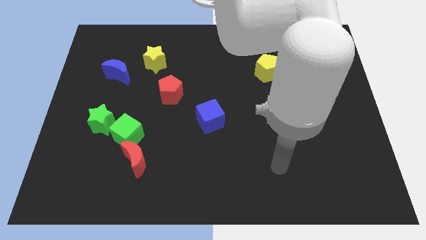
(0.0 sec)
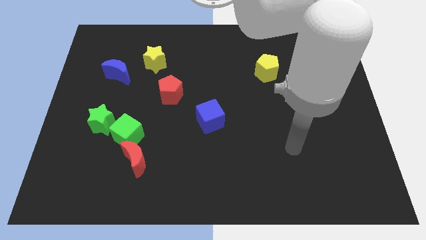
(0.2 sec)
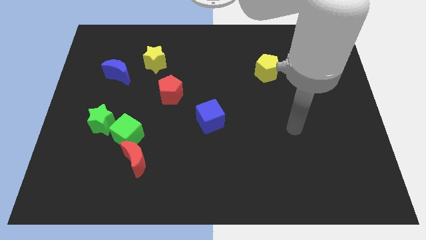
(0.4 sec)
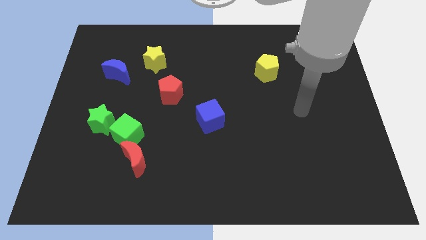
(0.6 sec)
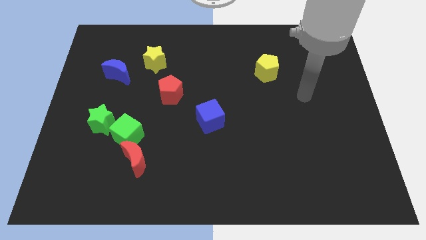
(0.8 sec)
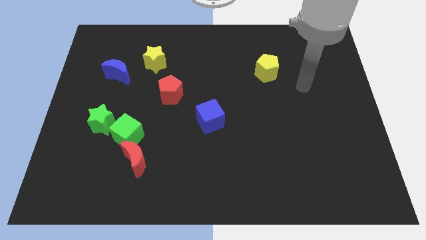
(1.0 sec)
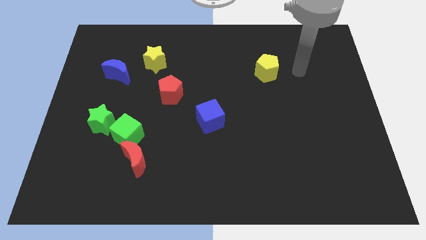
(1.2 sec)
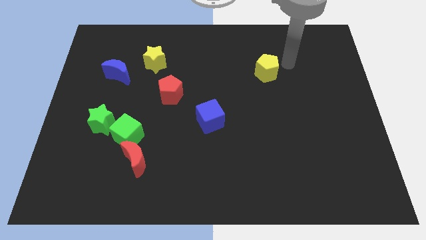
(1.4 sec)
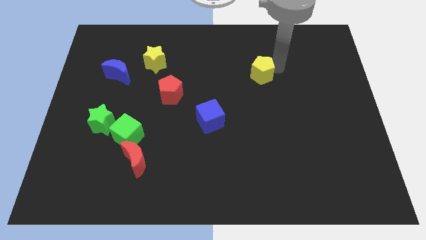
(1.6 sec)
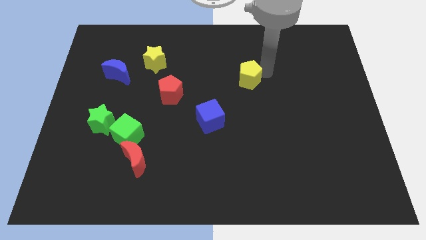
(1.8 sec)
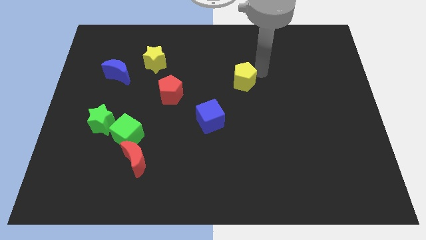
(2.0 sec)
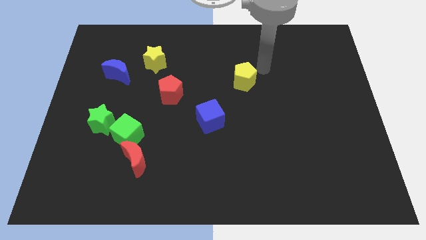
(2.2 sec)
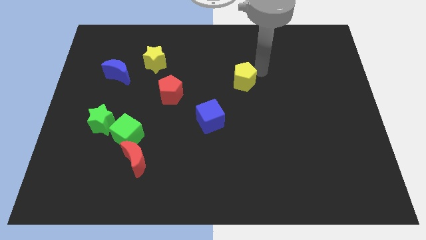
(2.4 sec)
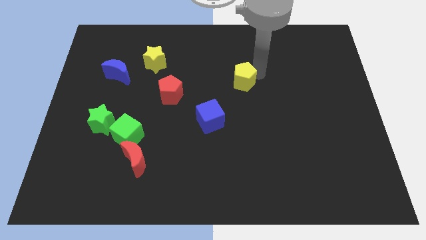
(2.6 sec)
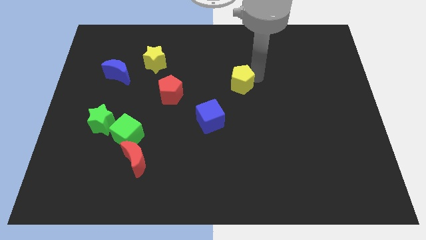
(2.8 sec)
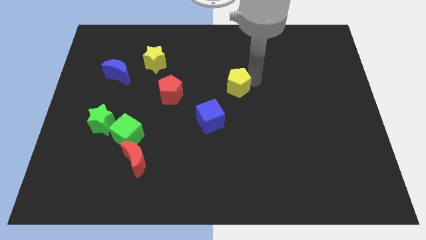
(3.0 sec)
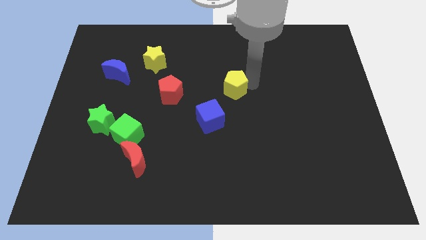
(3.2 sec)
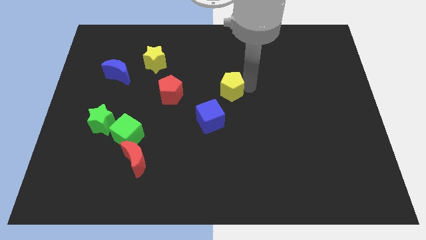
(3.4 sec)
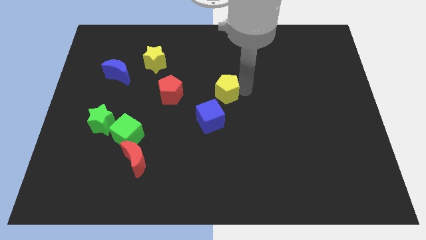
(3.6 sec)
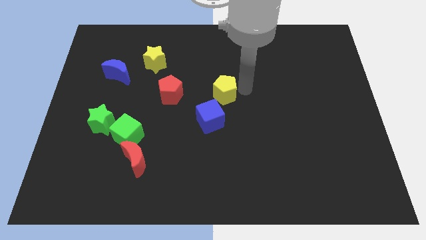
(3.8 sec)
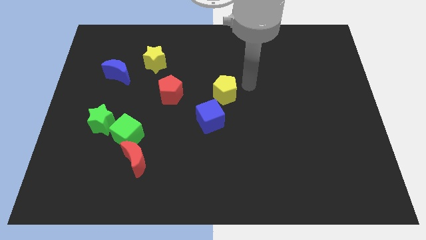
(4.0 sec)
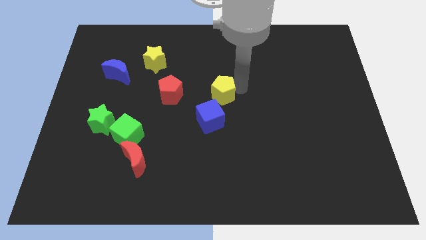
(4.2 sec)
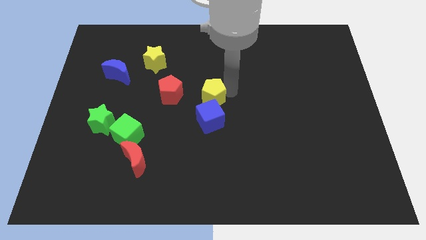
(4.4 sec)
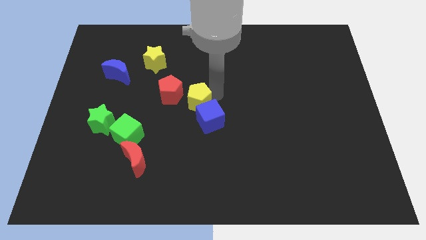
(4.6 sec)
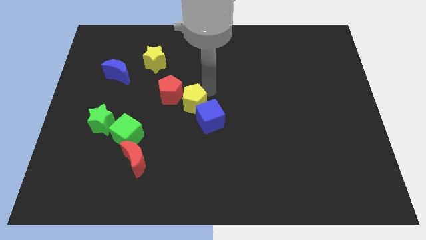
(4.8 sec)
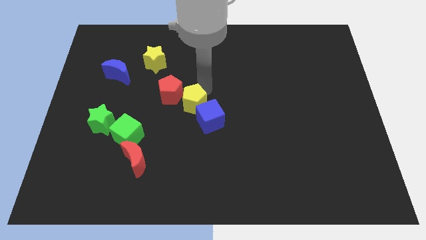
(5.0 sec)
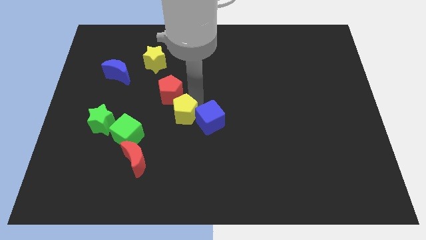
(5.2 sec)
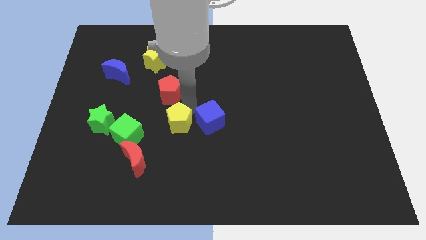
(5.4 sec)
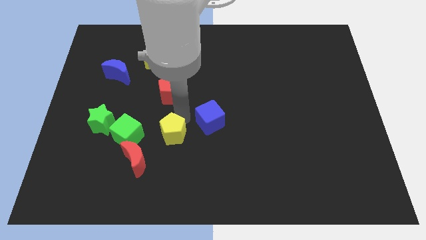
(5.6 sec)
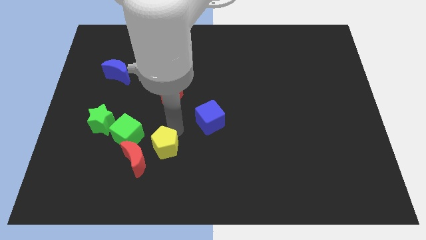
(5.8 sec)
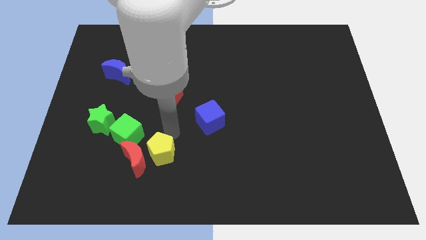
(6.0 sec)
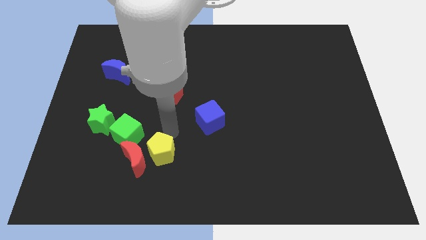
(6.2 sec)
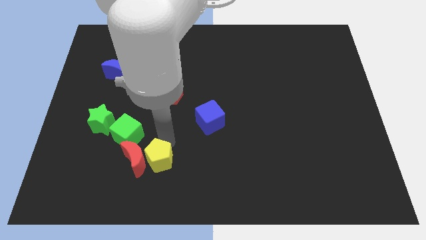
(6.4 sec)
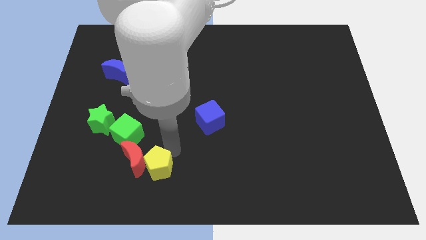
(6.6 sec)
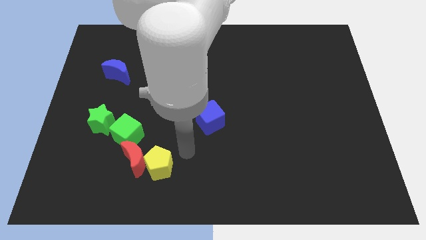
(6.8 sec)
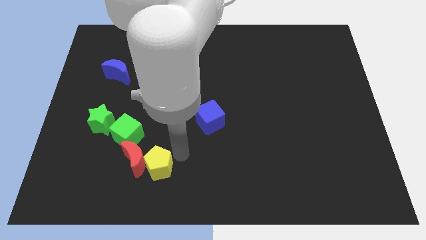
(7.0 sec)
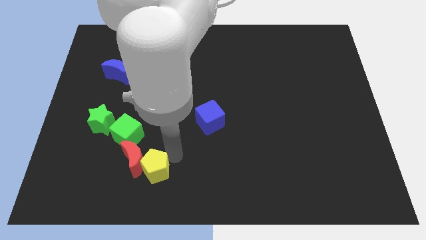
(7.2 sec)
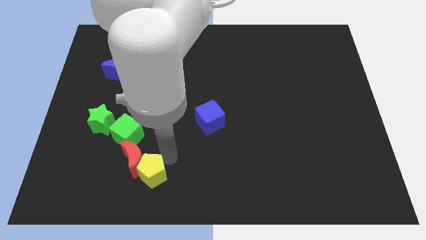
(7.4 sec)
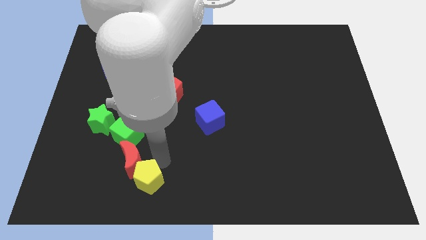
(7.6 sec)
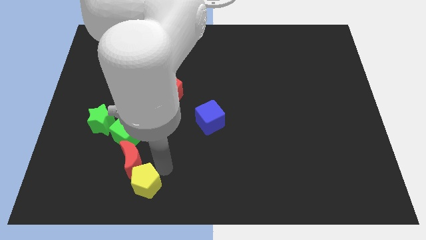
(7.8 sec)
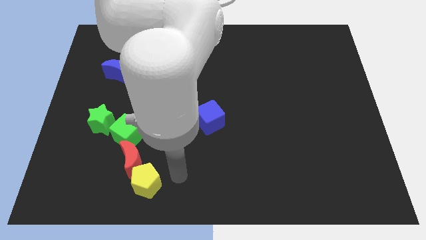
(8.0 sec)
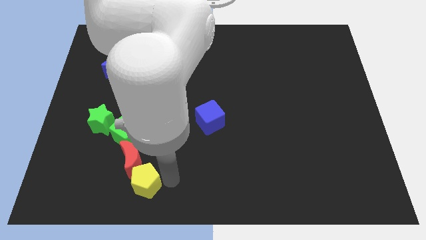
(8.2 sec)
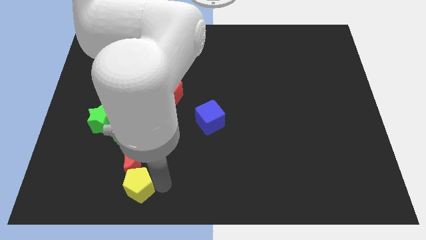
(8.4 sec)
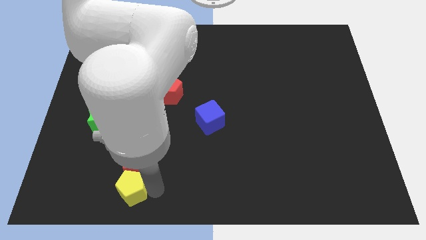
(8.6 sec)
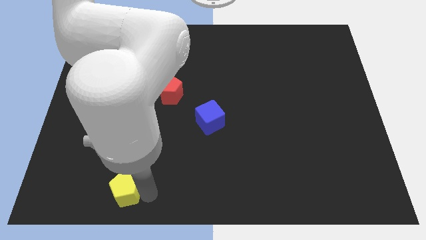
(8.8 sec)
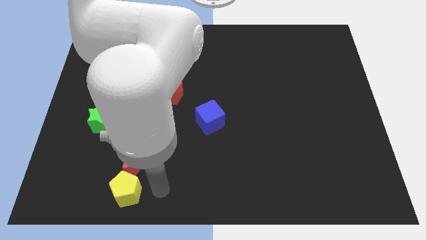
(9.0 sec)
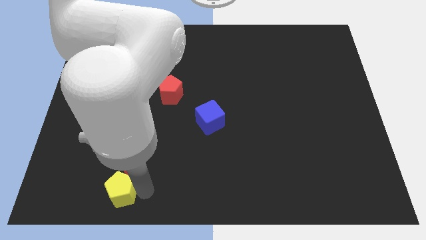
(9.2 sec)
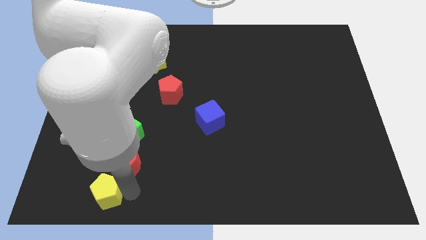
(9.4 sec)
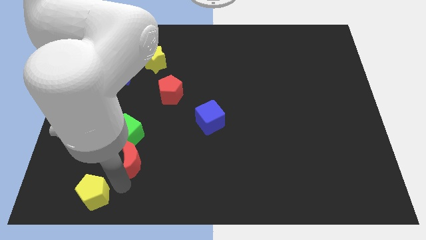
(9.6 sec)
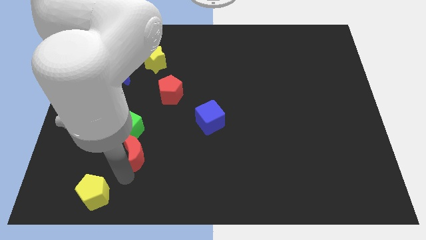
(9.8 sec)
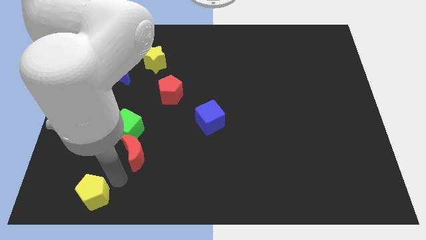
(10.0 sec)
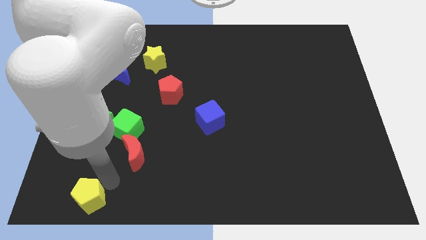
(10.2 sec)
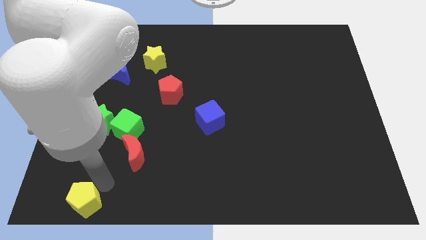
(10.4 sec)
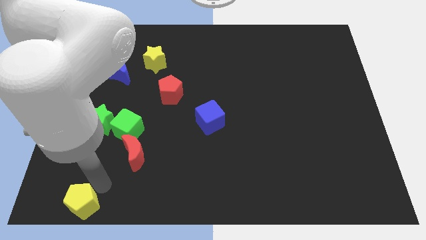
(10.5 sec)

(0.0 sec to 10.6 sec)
move the yellow pentagon to the bottom left

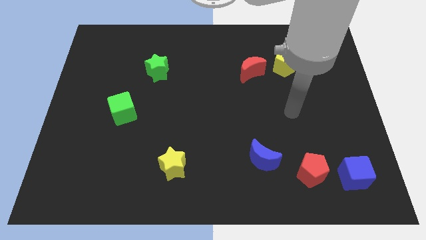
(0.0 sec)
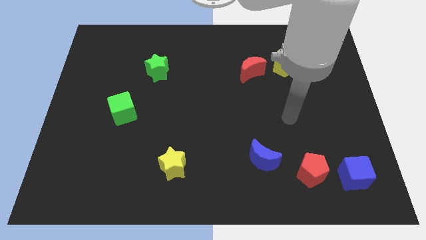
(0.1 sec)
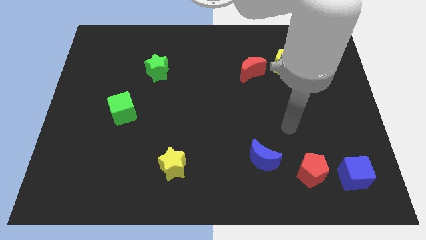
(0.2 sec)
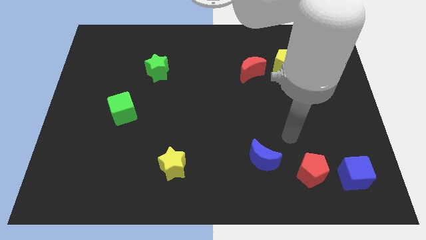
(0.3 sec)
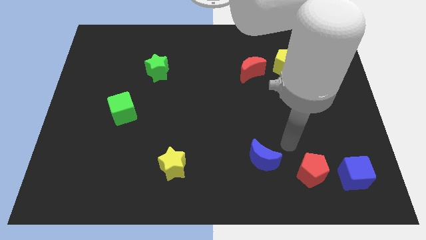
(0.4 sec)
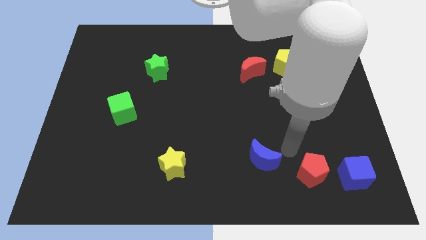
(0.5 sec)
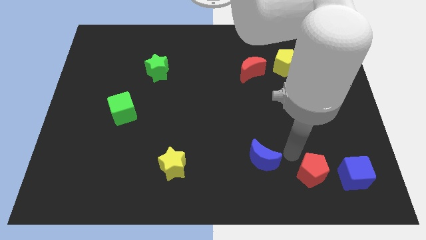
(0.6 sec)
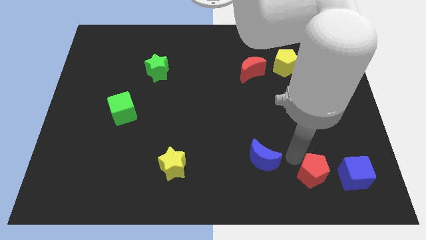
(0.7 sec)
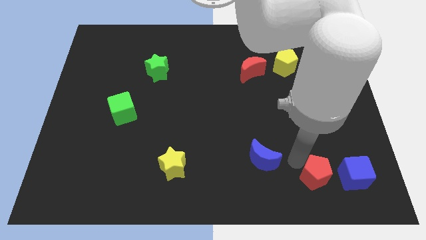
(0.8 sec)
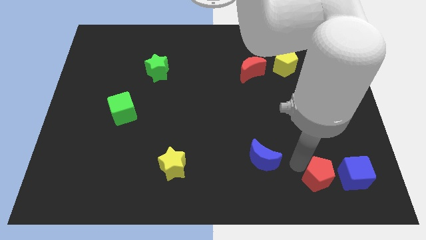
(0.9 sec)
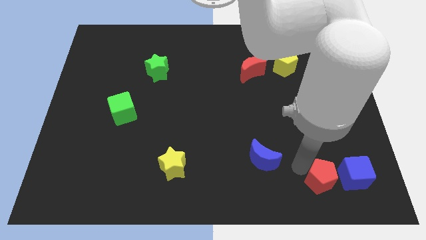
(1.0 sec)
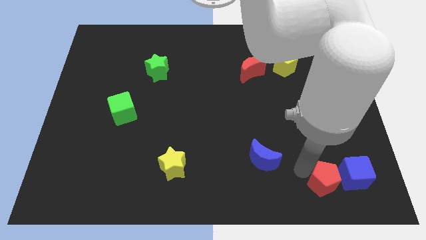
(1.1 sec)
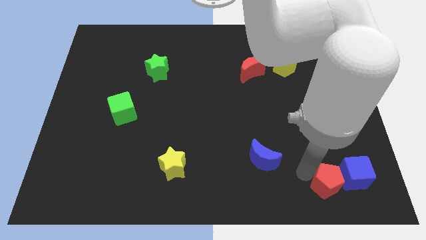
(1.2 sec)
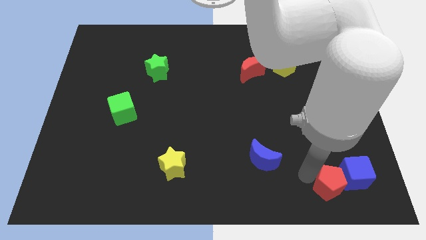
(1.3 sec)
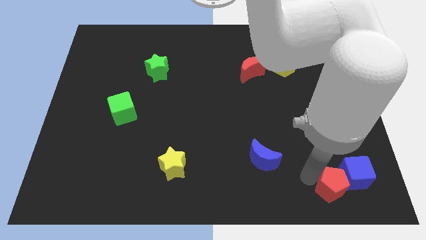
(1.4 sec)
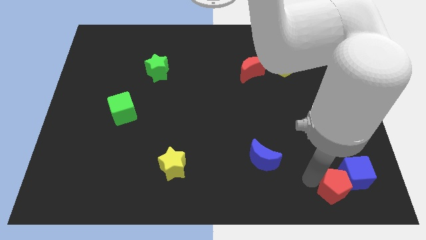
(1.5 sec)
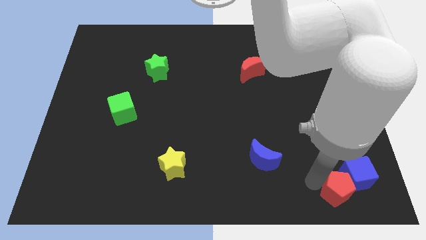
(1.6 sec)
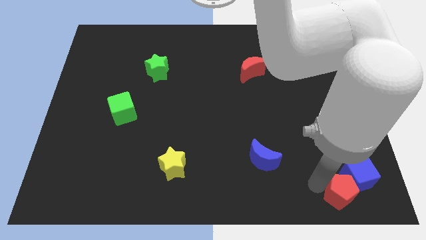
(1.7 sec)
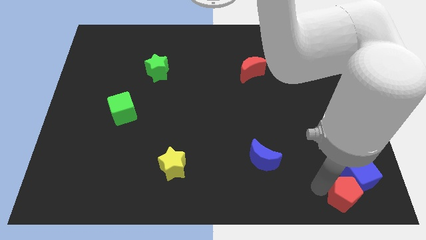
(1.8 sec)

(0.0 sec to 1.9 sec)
push the red pentagon to the bottom right
